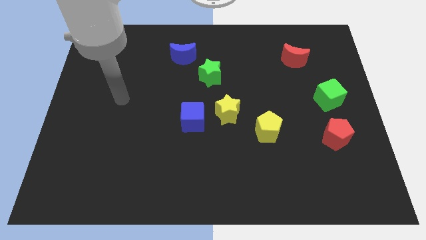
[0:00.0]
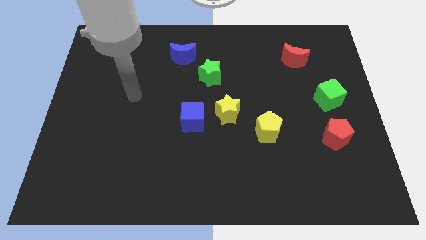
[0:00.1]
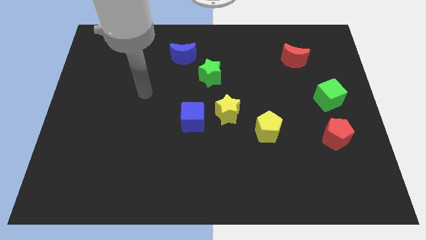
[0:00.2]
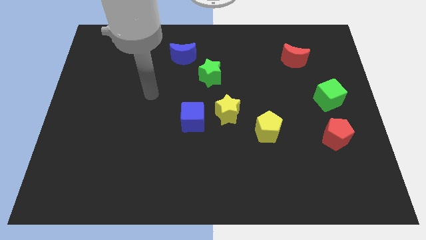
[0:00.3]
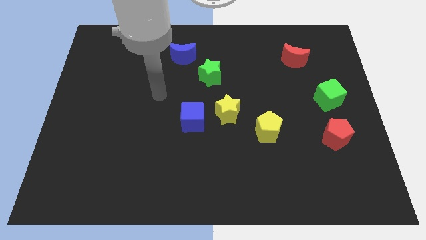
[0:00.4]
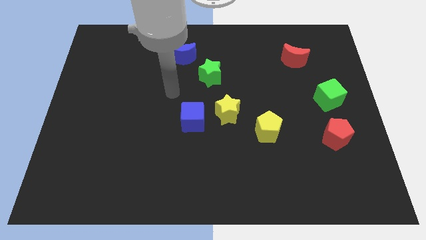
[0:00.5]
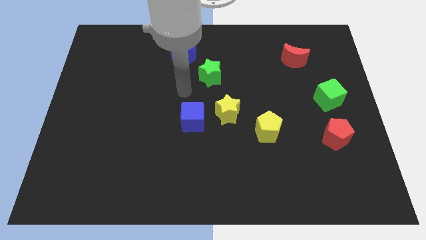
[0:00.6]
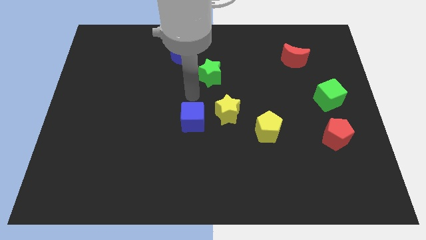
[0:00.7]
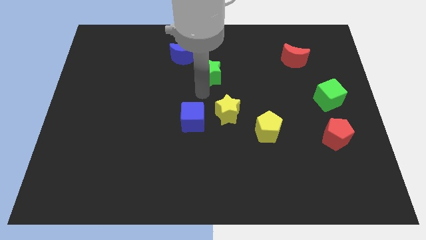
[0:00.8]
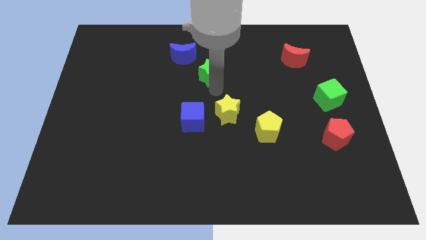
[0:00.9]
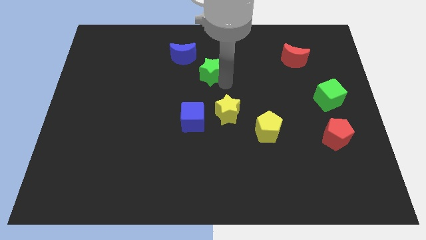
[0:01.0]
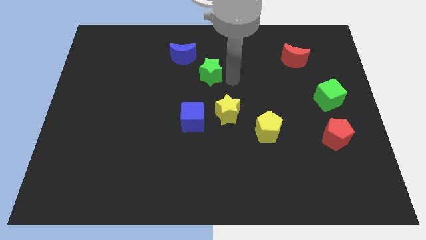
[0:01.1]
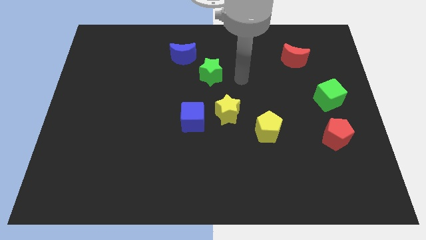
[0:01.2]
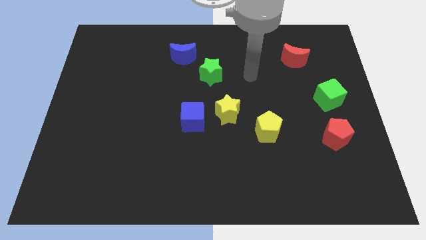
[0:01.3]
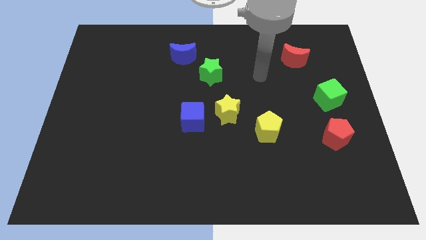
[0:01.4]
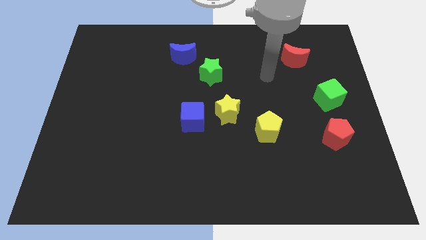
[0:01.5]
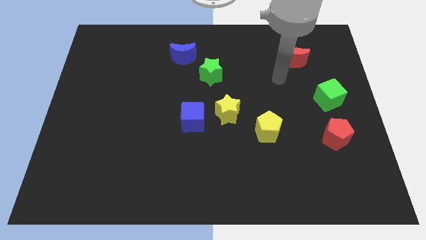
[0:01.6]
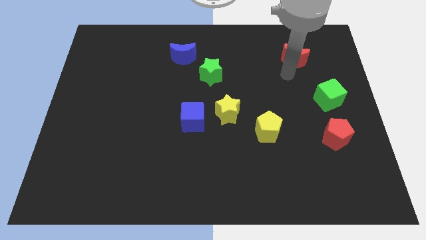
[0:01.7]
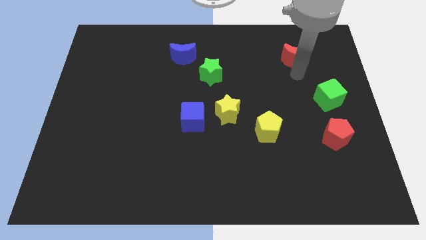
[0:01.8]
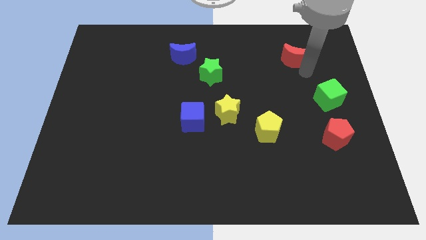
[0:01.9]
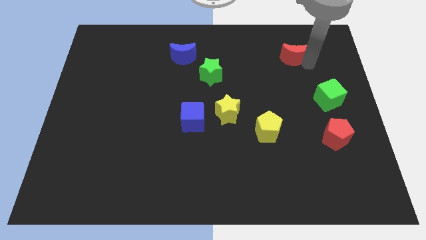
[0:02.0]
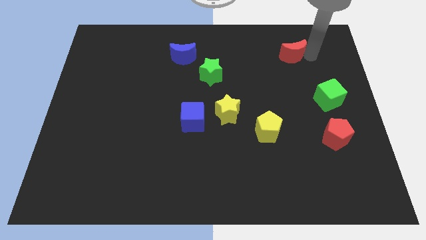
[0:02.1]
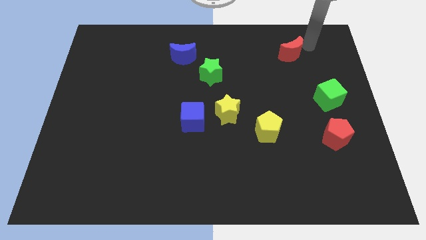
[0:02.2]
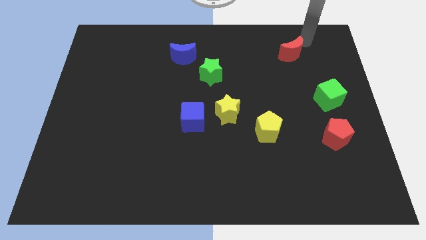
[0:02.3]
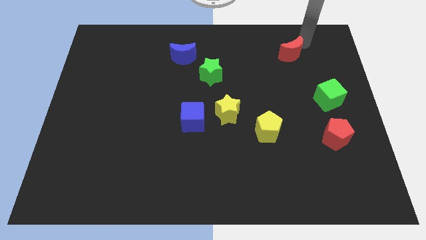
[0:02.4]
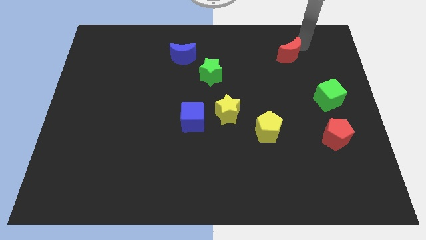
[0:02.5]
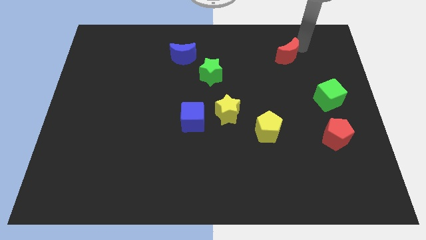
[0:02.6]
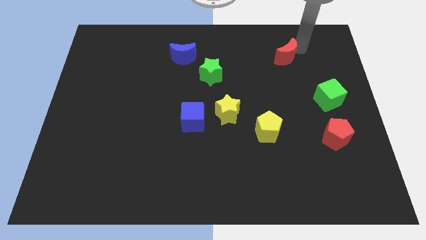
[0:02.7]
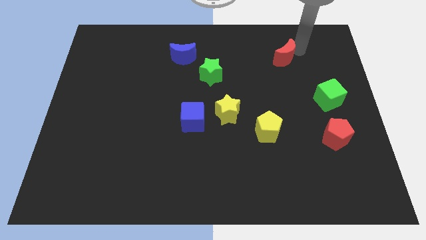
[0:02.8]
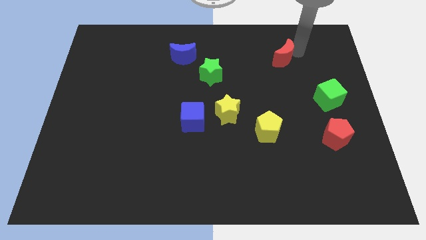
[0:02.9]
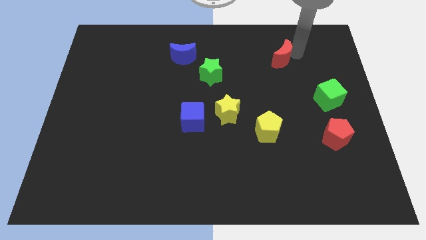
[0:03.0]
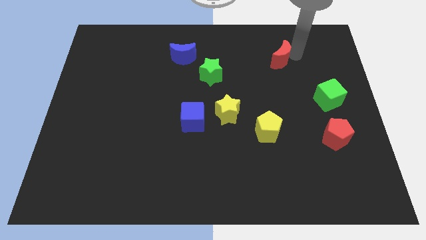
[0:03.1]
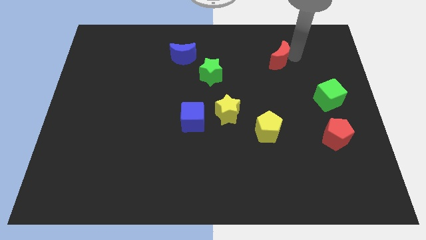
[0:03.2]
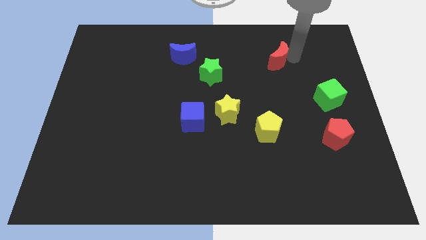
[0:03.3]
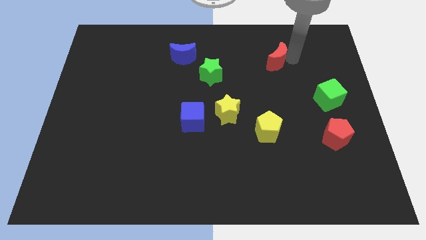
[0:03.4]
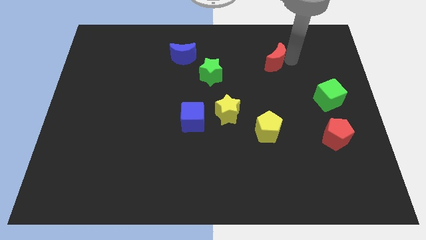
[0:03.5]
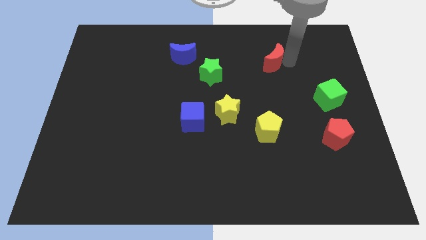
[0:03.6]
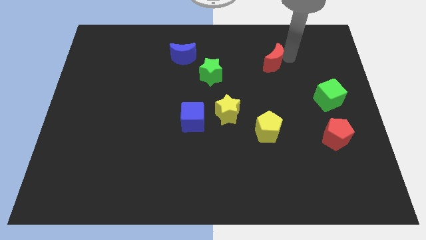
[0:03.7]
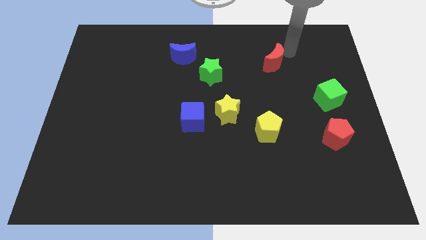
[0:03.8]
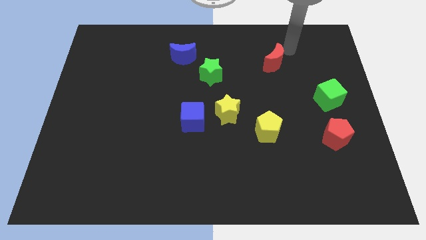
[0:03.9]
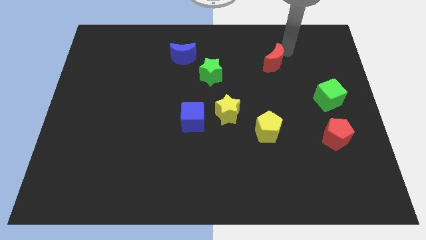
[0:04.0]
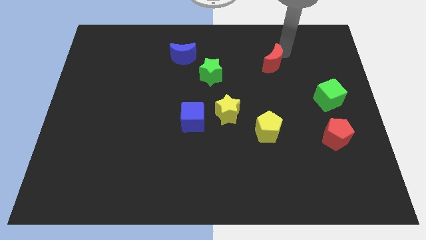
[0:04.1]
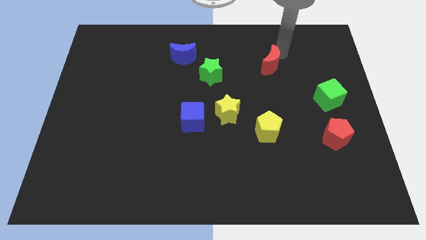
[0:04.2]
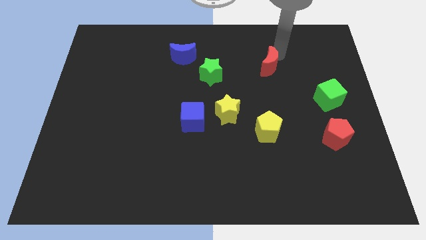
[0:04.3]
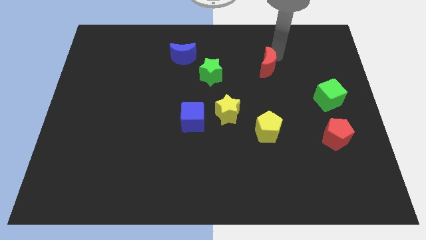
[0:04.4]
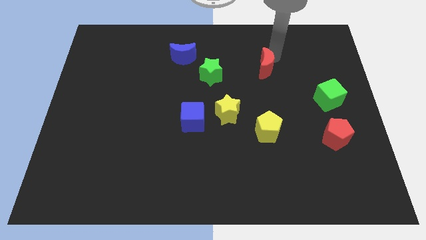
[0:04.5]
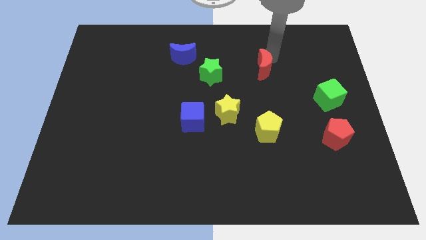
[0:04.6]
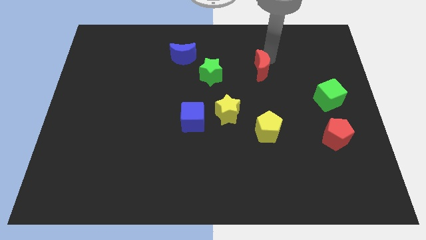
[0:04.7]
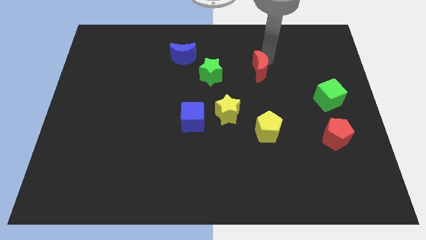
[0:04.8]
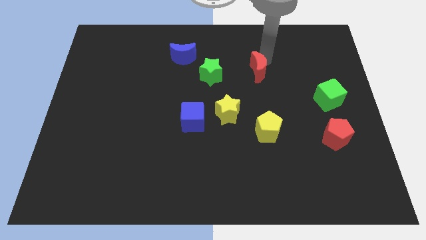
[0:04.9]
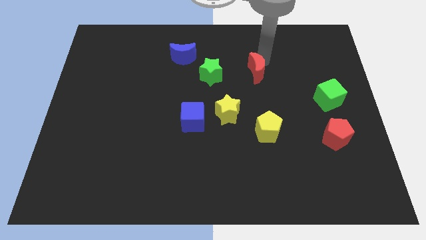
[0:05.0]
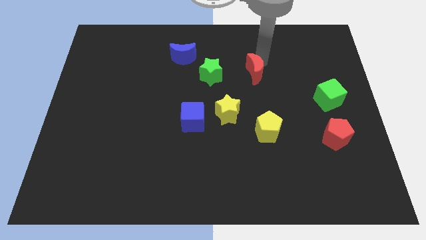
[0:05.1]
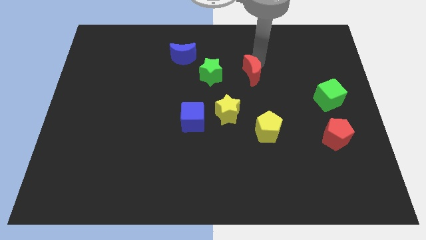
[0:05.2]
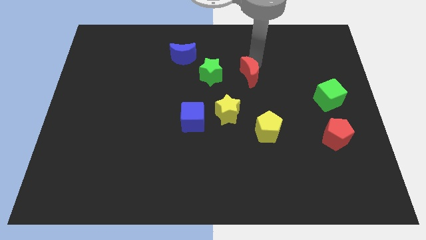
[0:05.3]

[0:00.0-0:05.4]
put the red moon to the middle

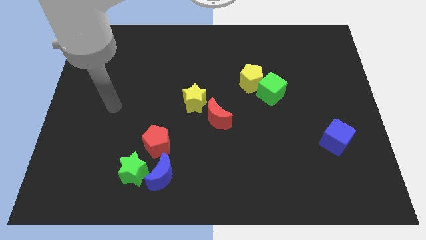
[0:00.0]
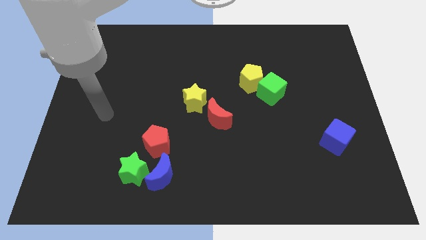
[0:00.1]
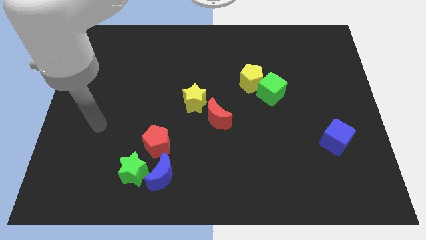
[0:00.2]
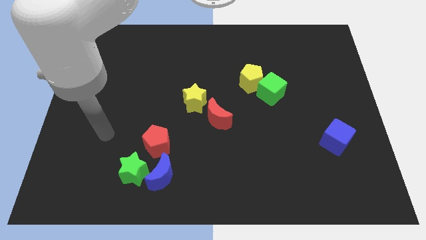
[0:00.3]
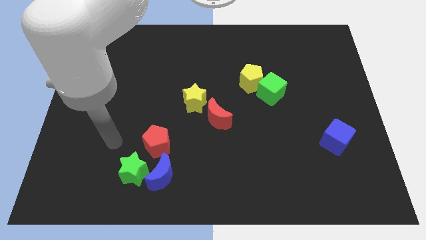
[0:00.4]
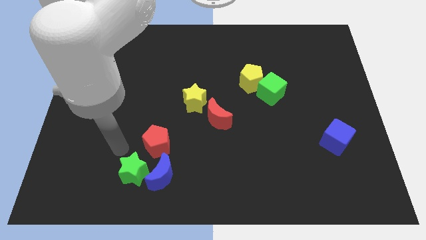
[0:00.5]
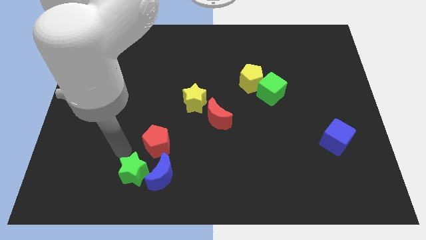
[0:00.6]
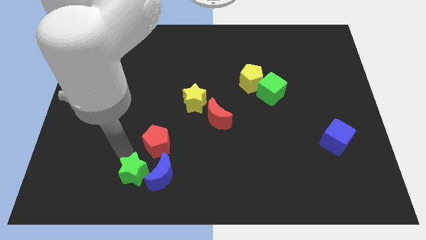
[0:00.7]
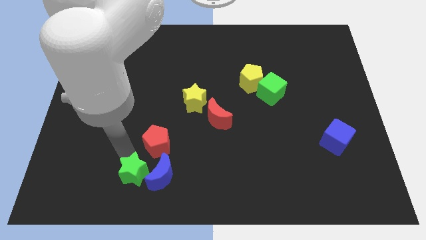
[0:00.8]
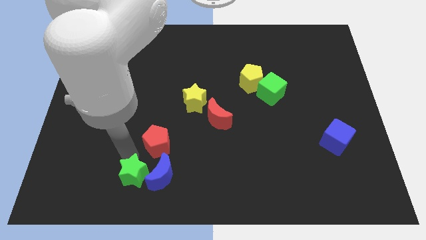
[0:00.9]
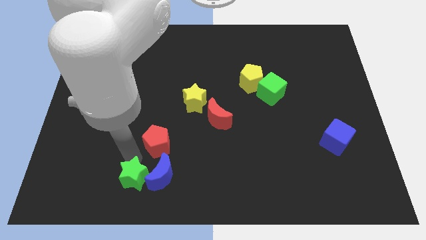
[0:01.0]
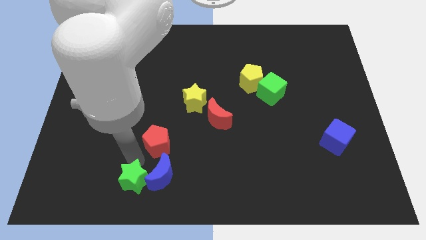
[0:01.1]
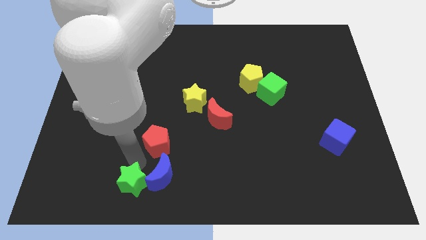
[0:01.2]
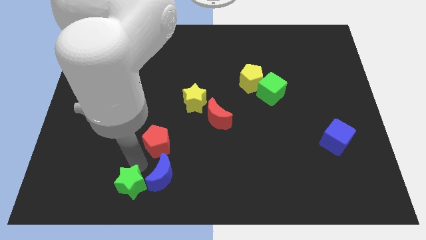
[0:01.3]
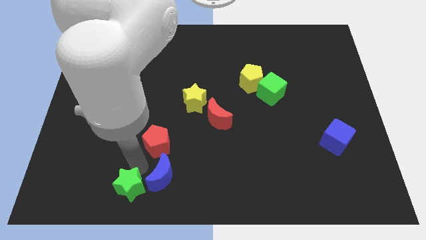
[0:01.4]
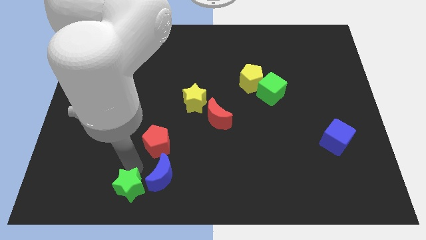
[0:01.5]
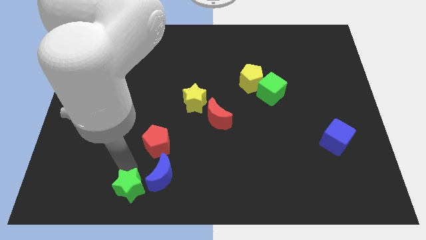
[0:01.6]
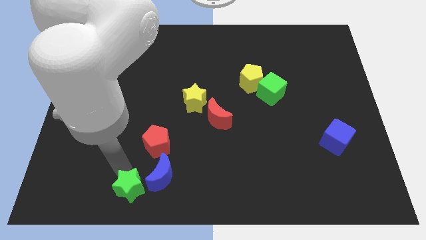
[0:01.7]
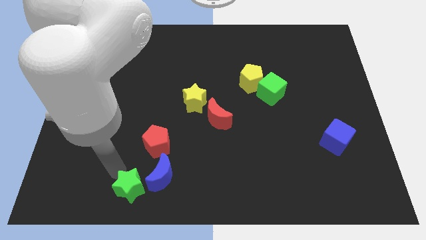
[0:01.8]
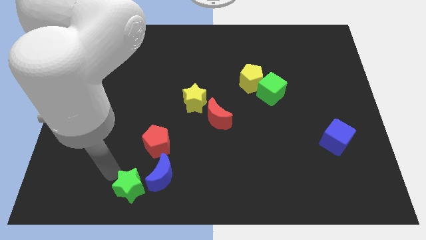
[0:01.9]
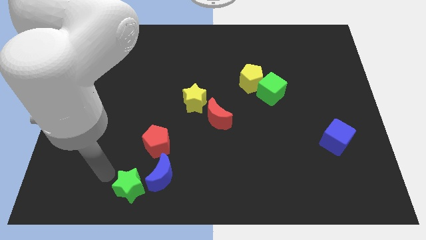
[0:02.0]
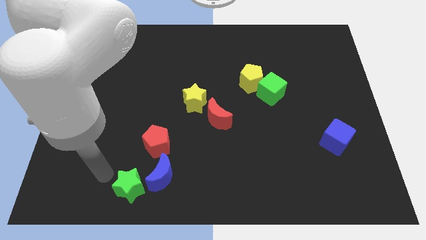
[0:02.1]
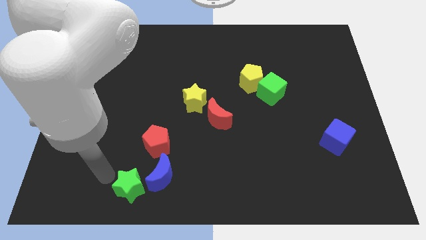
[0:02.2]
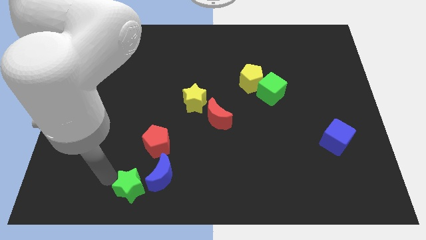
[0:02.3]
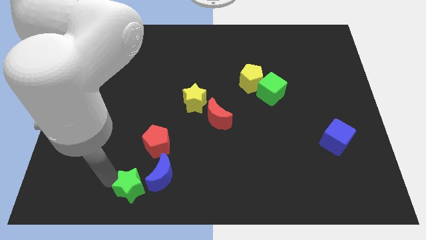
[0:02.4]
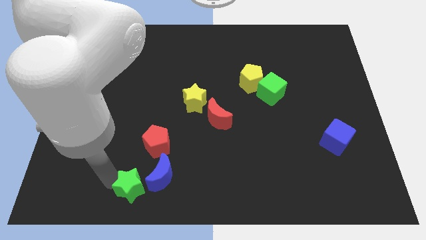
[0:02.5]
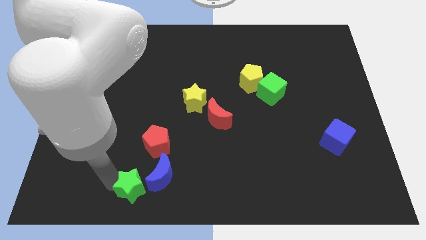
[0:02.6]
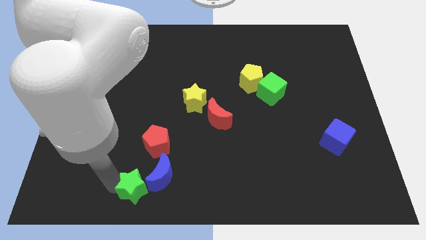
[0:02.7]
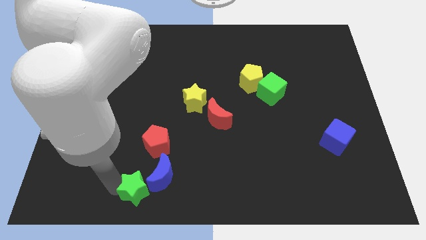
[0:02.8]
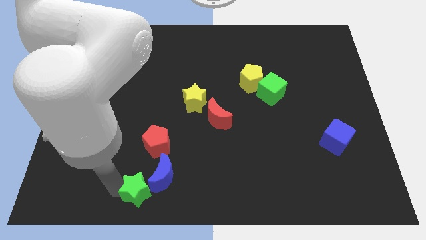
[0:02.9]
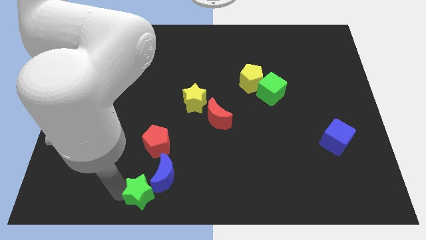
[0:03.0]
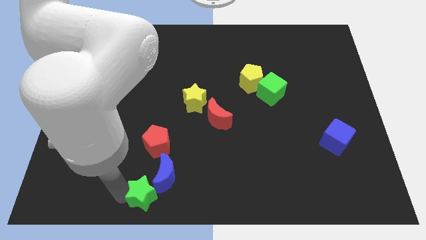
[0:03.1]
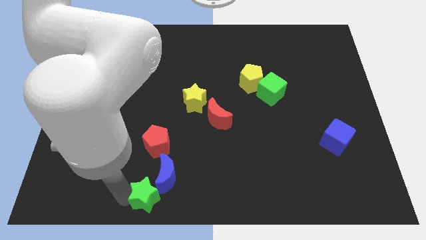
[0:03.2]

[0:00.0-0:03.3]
push the green star to the bottom
